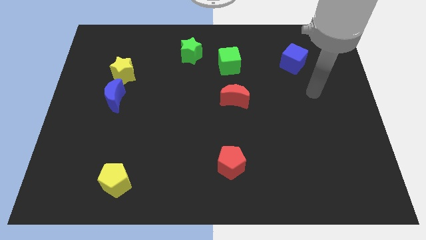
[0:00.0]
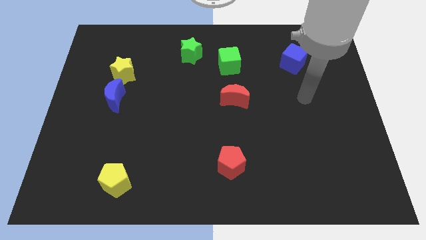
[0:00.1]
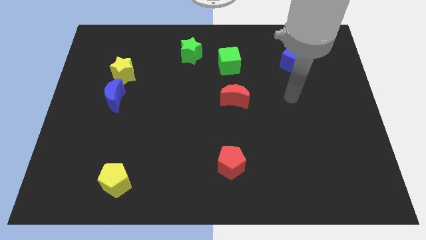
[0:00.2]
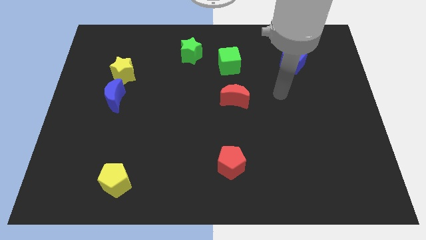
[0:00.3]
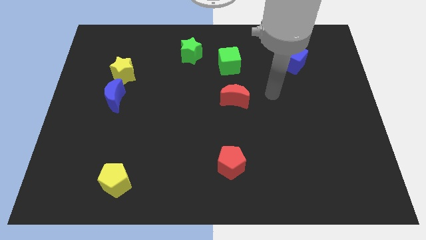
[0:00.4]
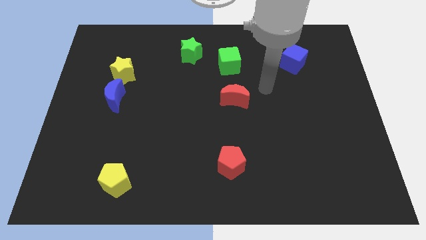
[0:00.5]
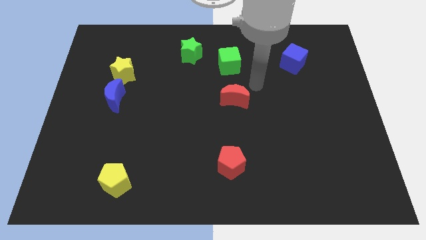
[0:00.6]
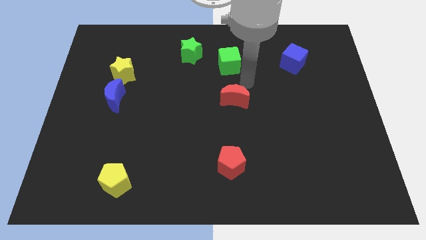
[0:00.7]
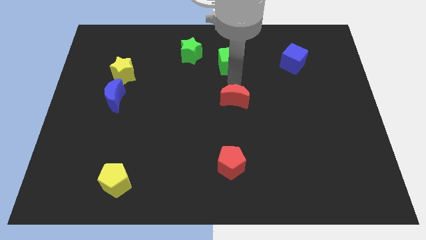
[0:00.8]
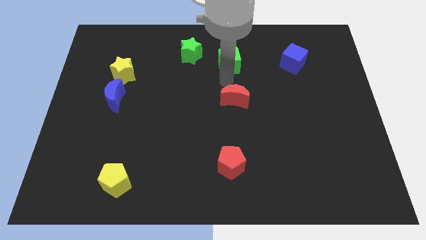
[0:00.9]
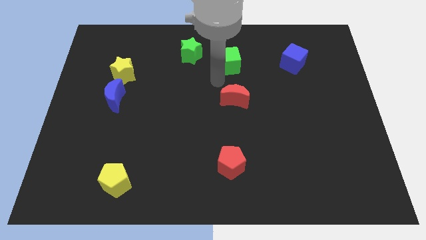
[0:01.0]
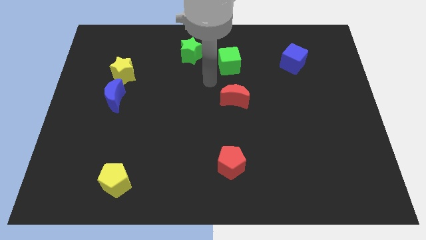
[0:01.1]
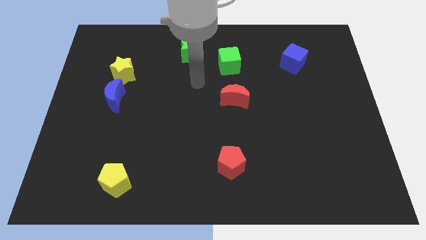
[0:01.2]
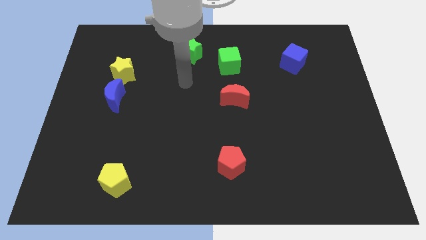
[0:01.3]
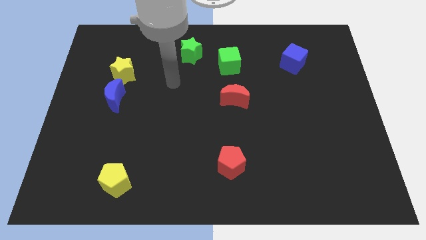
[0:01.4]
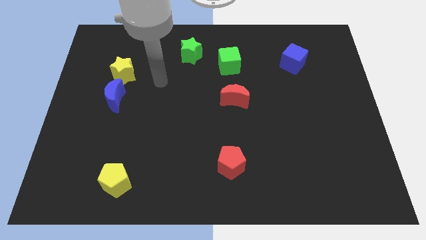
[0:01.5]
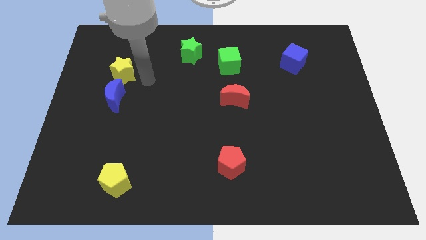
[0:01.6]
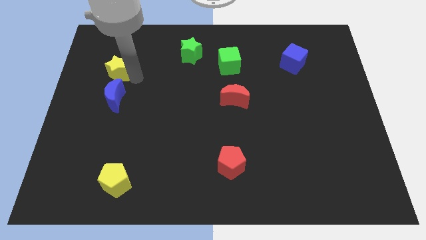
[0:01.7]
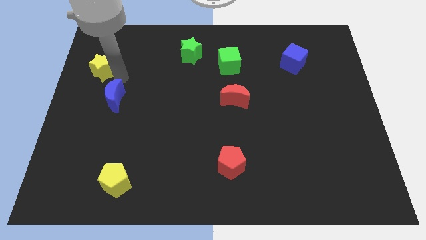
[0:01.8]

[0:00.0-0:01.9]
move the blue moon away from the yellow star

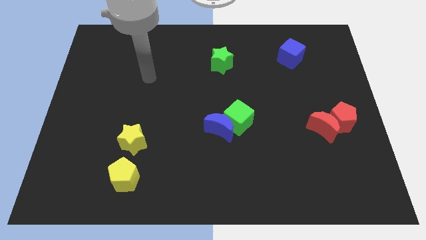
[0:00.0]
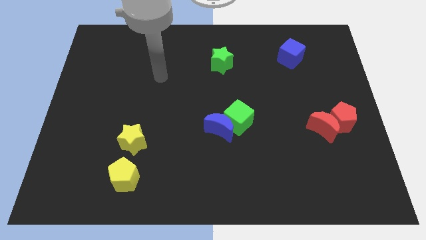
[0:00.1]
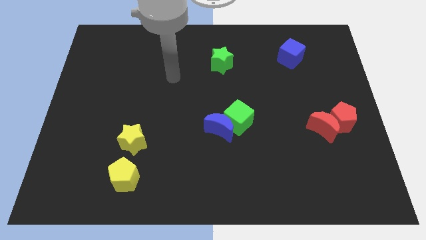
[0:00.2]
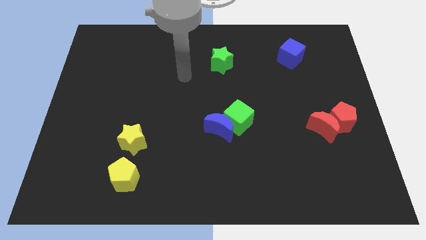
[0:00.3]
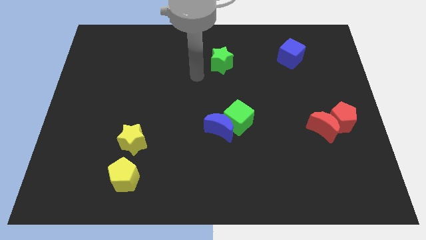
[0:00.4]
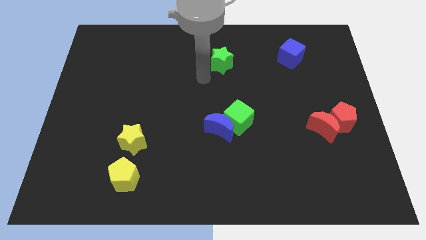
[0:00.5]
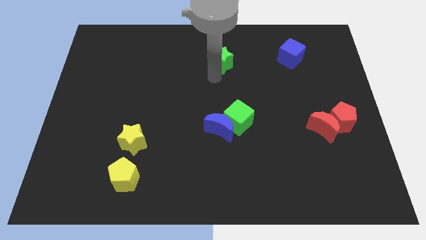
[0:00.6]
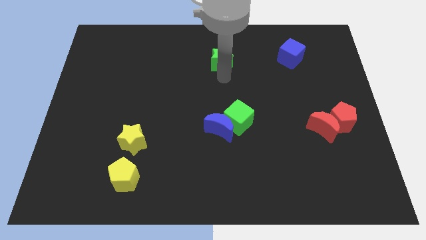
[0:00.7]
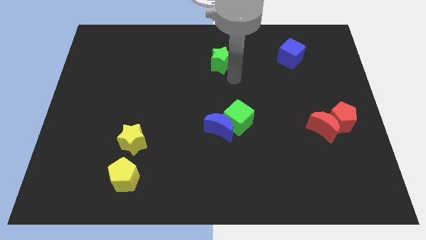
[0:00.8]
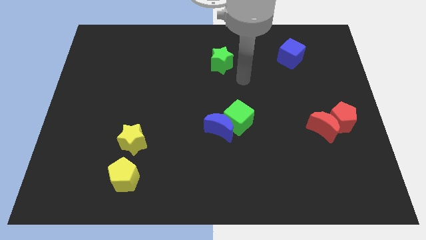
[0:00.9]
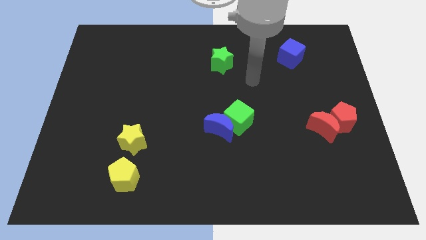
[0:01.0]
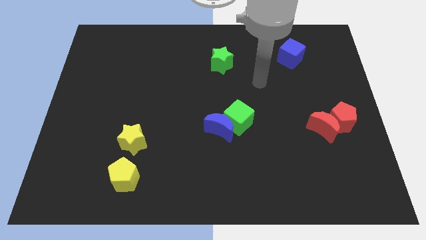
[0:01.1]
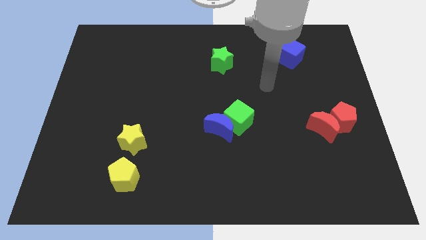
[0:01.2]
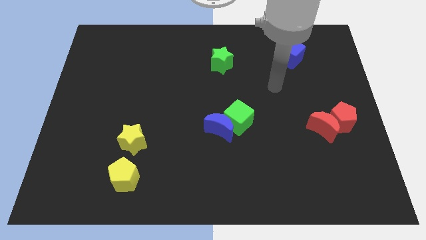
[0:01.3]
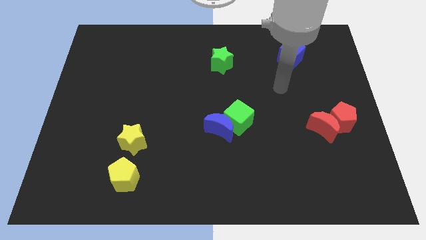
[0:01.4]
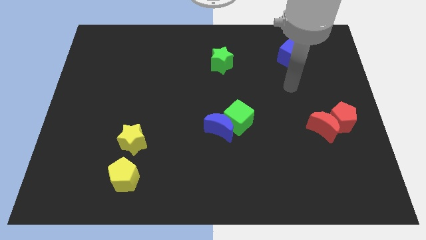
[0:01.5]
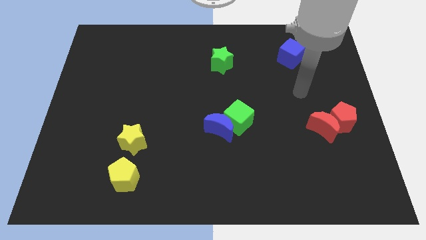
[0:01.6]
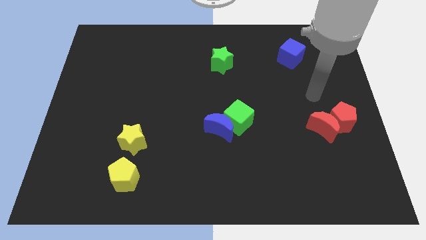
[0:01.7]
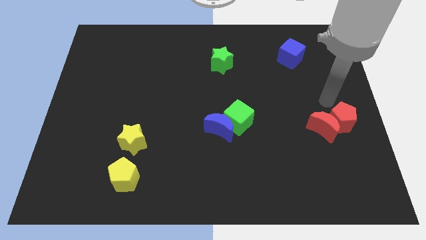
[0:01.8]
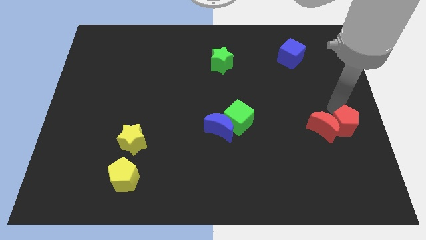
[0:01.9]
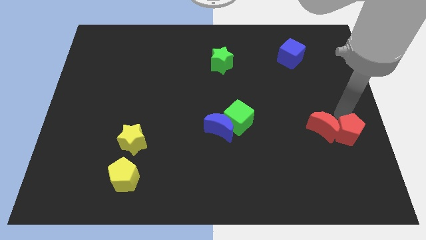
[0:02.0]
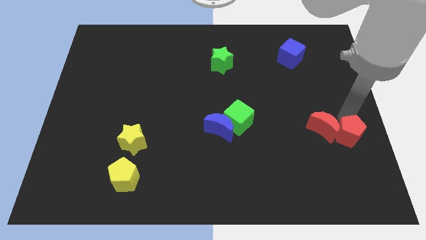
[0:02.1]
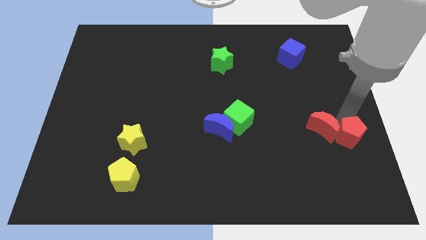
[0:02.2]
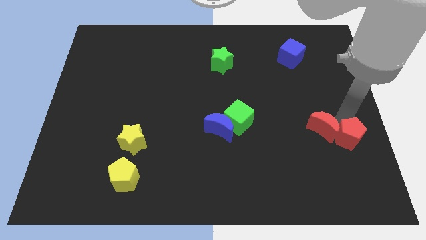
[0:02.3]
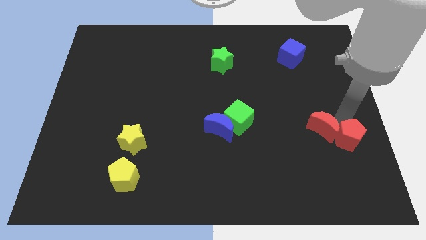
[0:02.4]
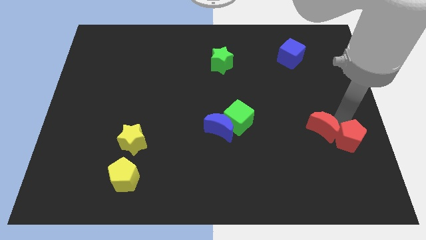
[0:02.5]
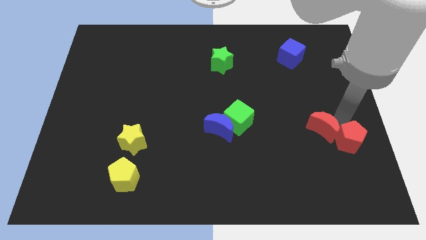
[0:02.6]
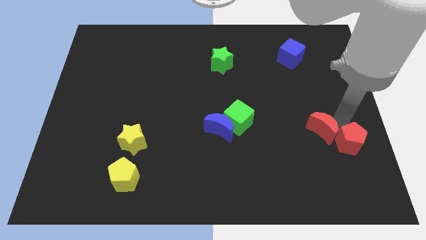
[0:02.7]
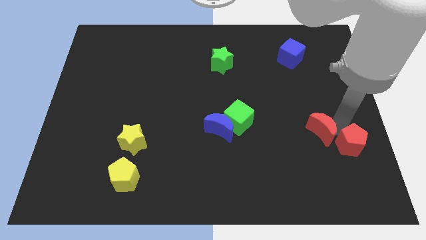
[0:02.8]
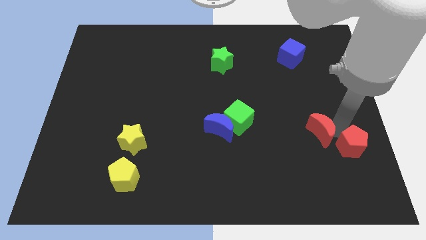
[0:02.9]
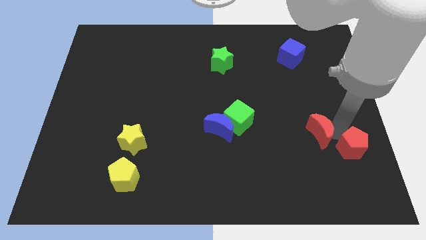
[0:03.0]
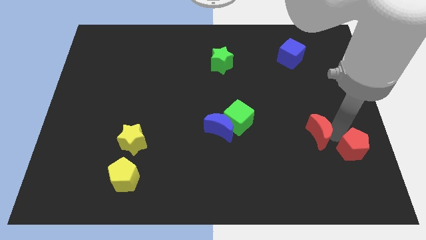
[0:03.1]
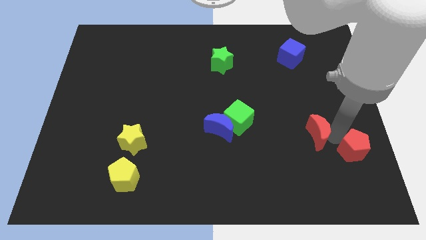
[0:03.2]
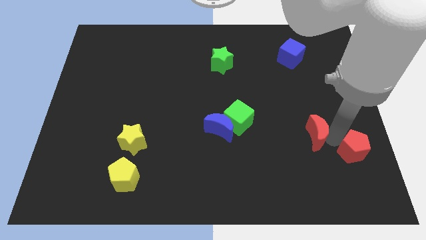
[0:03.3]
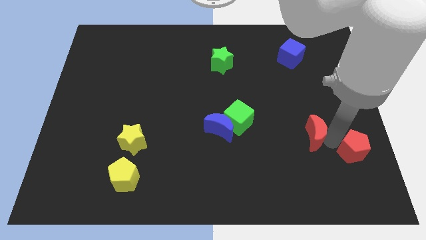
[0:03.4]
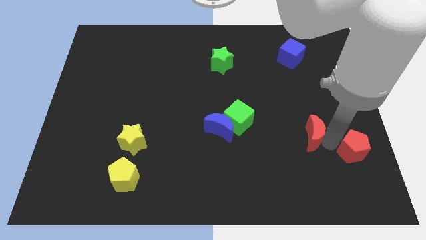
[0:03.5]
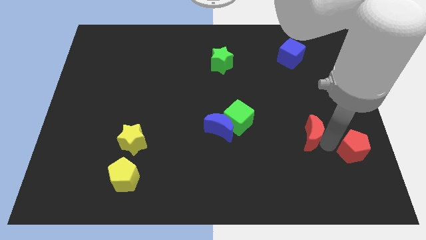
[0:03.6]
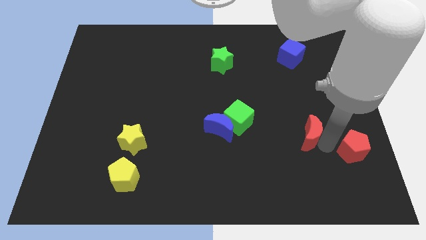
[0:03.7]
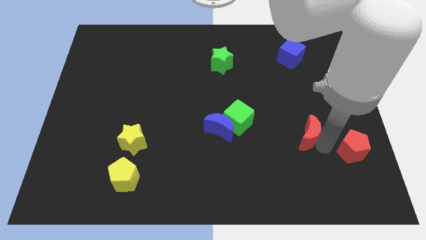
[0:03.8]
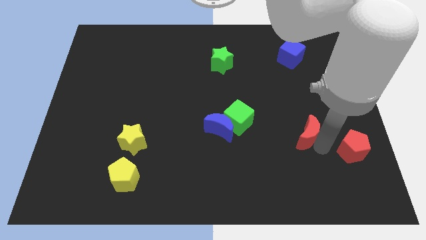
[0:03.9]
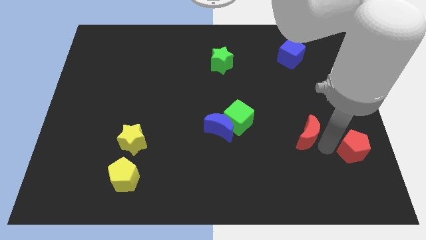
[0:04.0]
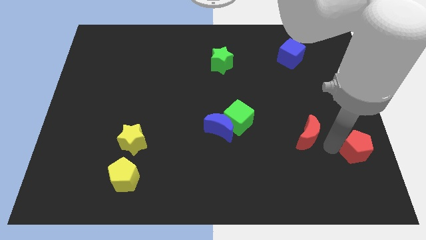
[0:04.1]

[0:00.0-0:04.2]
move the red moon away from the red pentagon

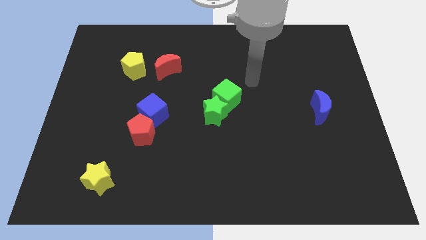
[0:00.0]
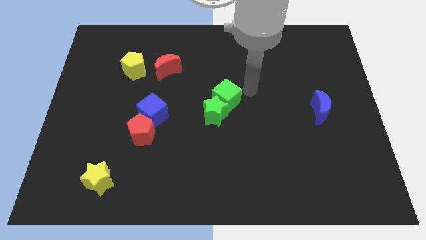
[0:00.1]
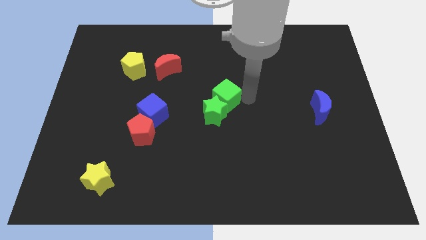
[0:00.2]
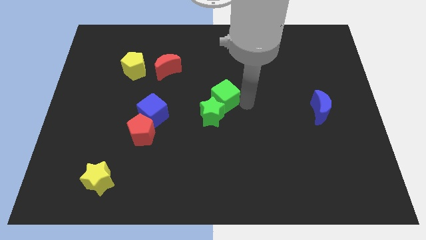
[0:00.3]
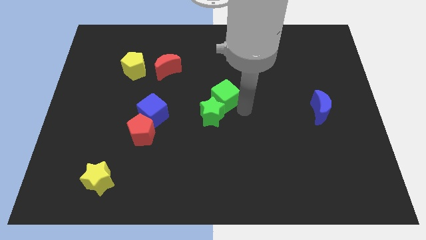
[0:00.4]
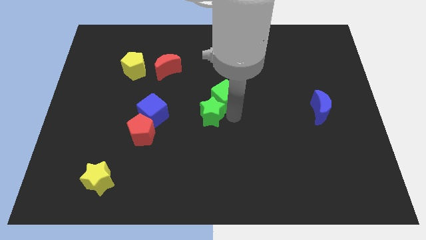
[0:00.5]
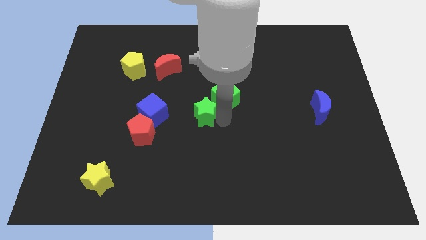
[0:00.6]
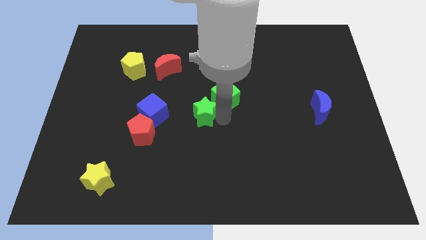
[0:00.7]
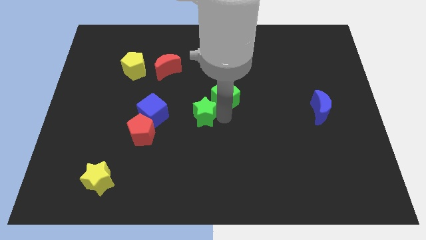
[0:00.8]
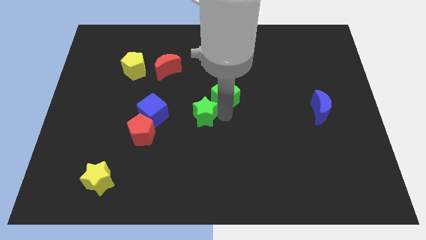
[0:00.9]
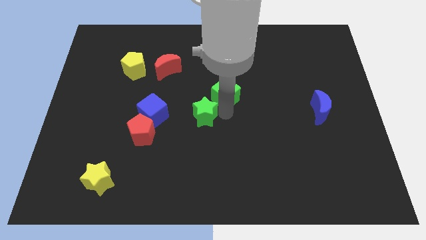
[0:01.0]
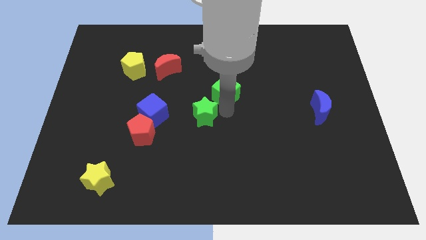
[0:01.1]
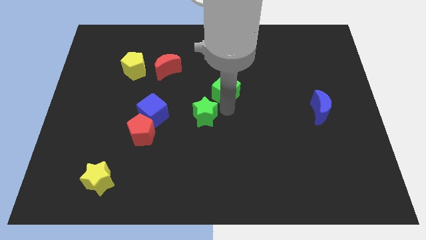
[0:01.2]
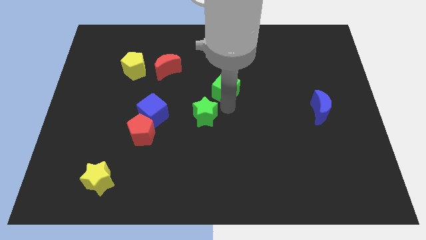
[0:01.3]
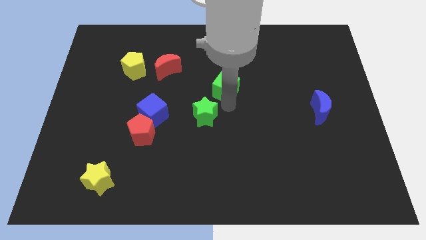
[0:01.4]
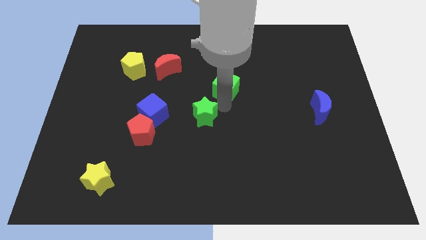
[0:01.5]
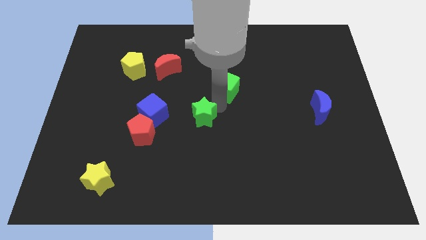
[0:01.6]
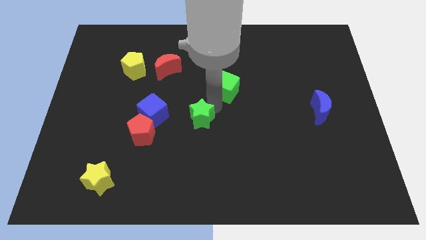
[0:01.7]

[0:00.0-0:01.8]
pull the green cube apart from the green star

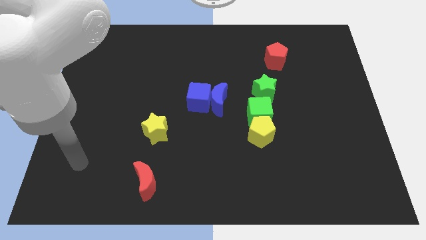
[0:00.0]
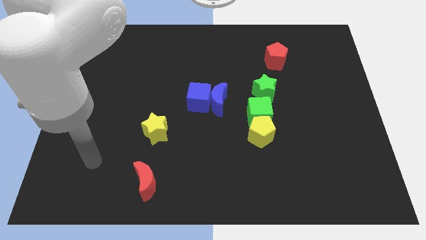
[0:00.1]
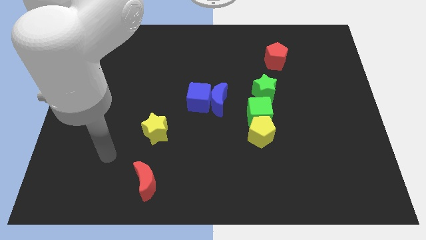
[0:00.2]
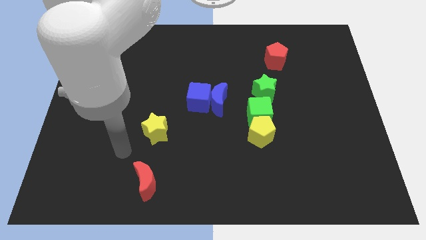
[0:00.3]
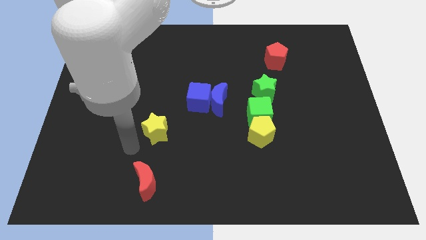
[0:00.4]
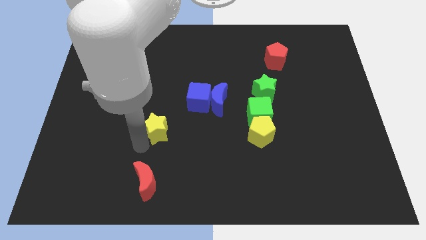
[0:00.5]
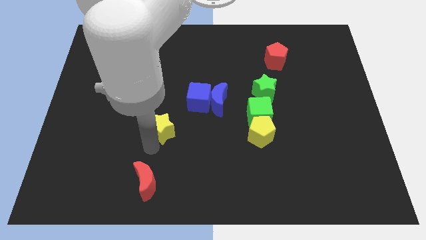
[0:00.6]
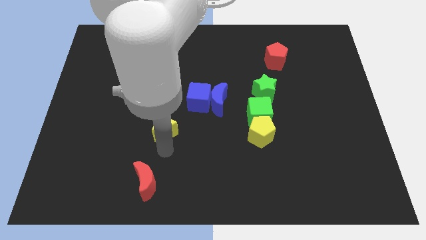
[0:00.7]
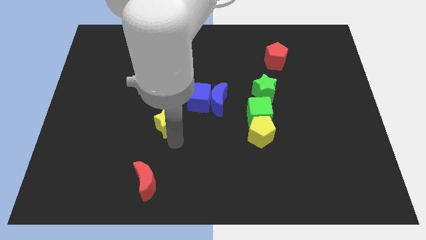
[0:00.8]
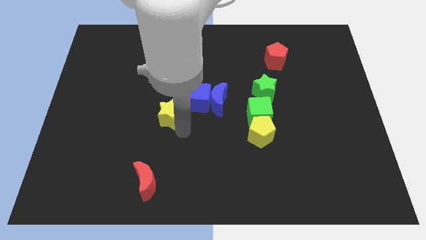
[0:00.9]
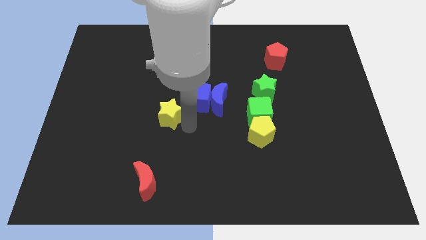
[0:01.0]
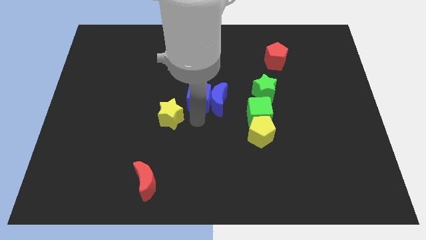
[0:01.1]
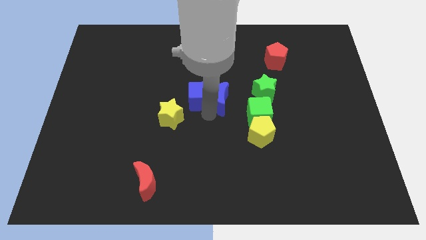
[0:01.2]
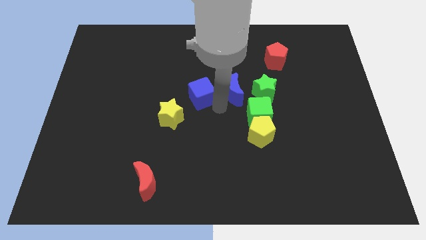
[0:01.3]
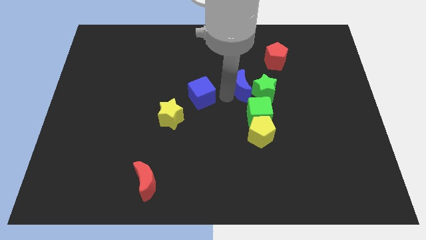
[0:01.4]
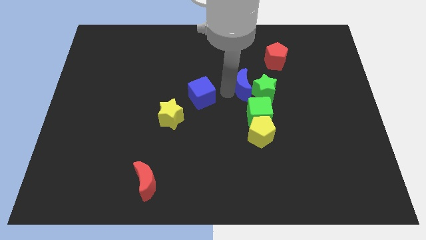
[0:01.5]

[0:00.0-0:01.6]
pull the blue cube apart from the blue moon
